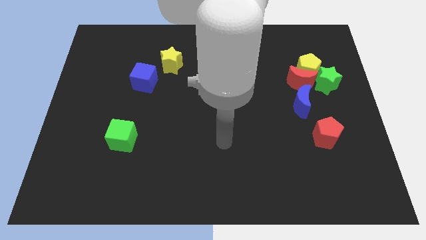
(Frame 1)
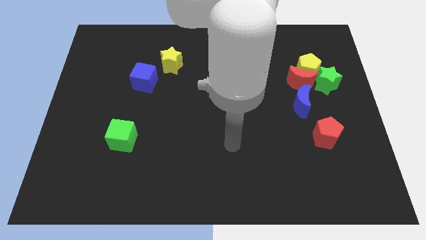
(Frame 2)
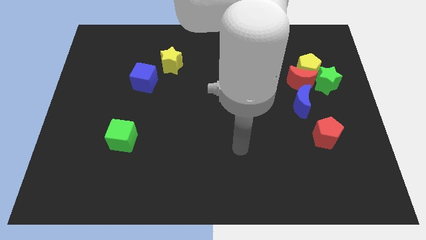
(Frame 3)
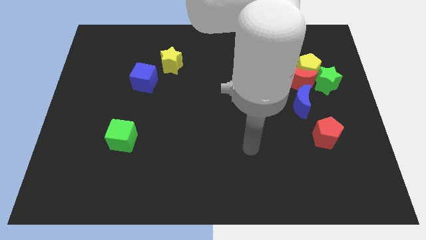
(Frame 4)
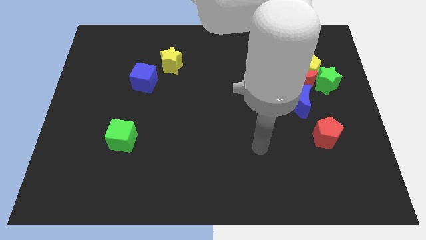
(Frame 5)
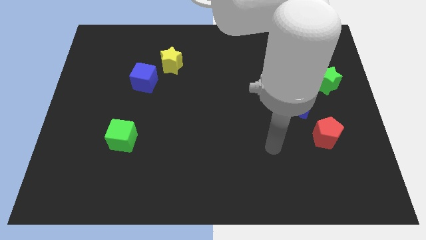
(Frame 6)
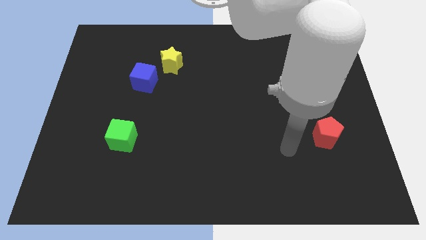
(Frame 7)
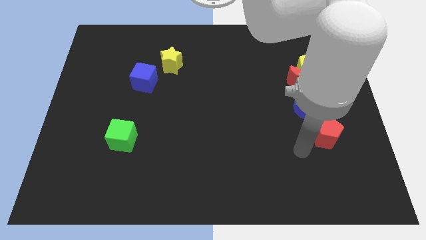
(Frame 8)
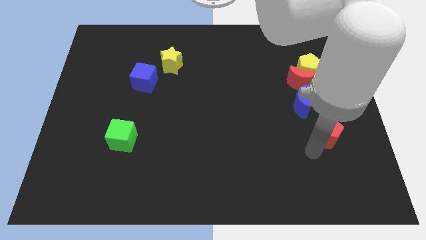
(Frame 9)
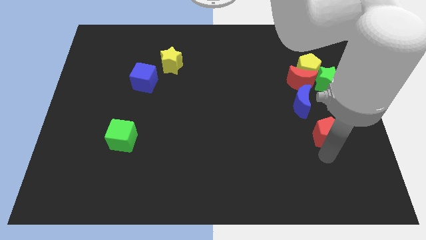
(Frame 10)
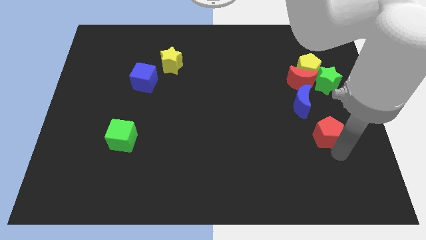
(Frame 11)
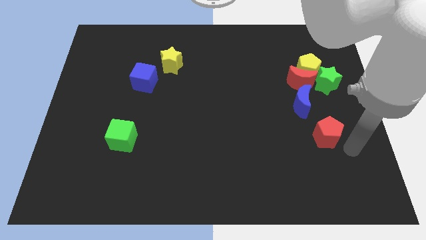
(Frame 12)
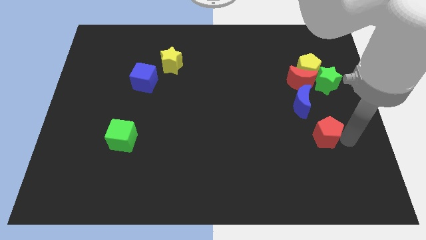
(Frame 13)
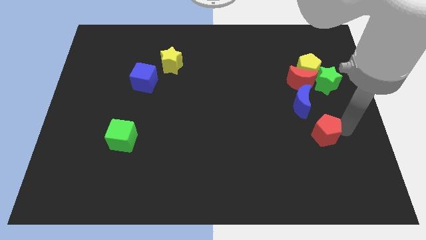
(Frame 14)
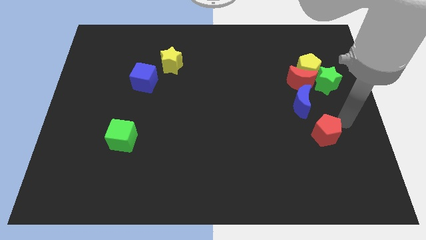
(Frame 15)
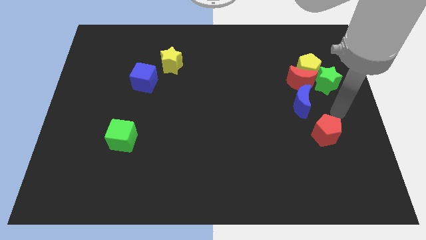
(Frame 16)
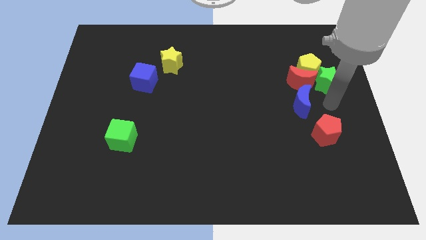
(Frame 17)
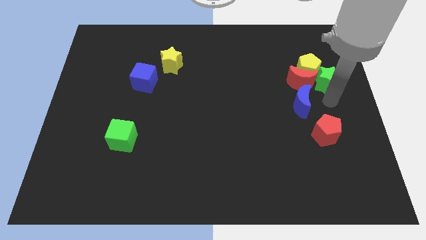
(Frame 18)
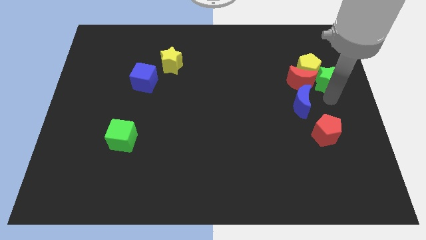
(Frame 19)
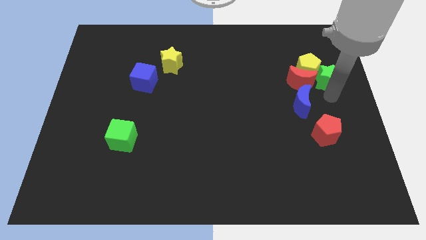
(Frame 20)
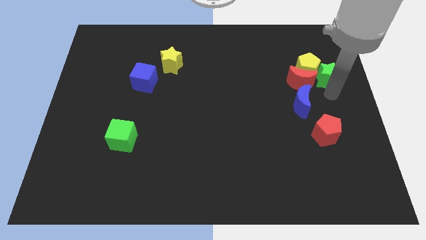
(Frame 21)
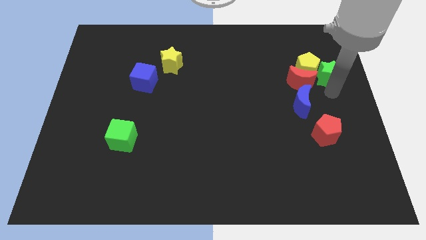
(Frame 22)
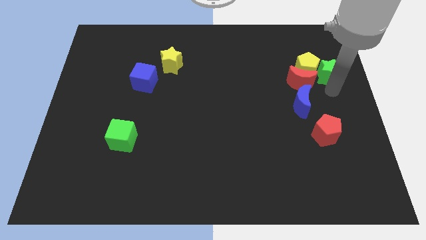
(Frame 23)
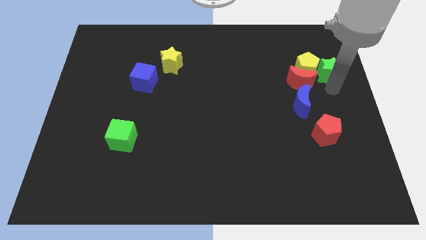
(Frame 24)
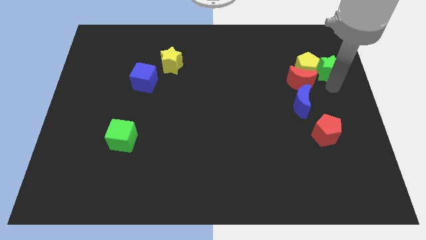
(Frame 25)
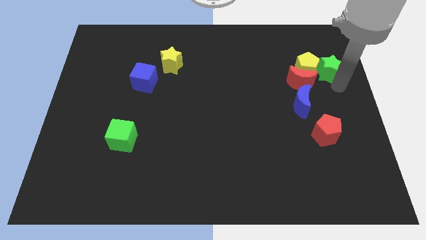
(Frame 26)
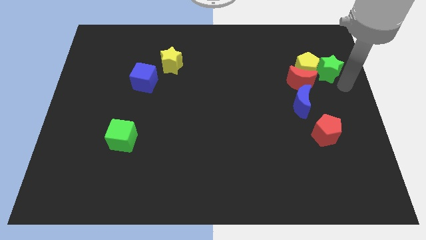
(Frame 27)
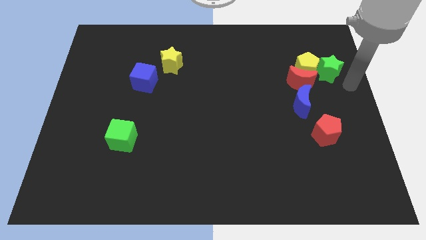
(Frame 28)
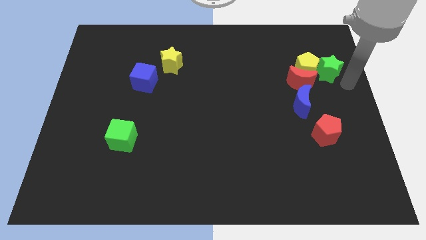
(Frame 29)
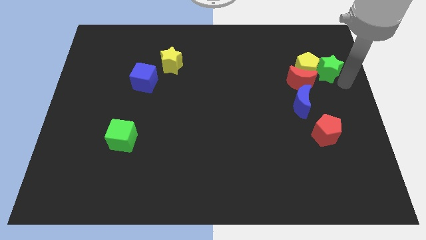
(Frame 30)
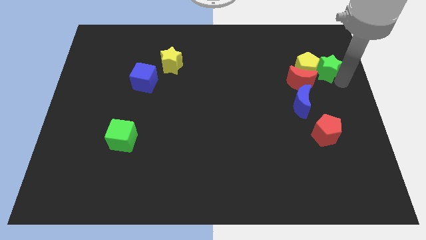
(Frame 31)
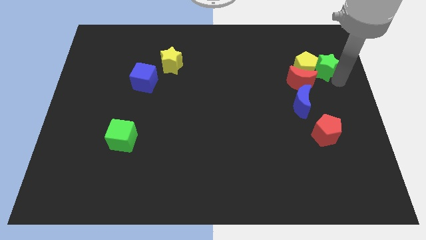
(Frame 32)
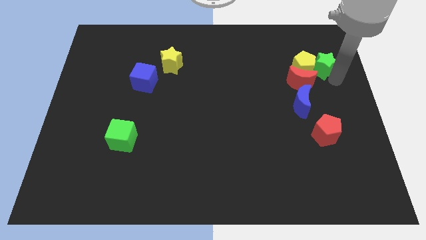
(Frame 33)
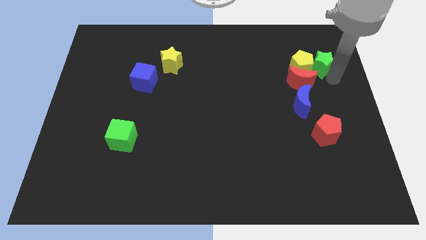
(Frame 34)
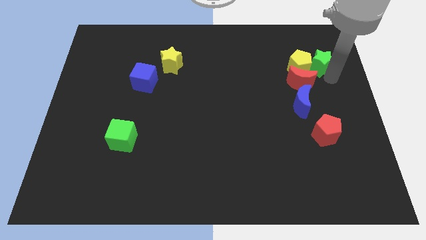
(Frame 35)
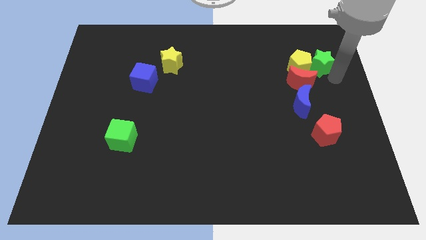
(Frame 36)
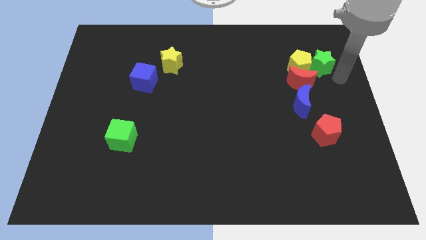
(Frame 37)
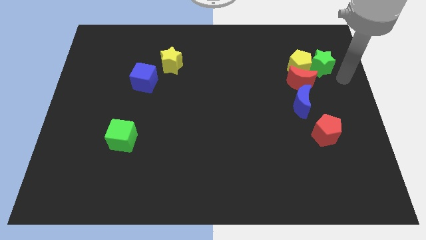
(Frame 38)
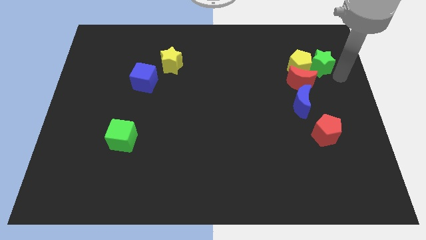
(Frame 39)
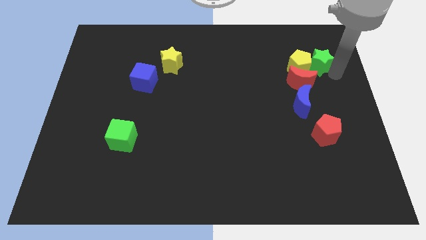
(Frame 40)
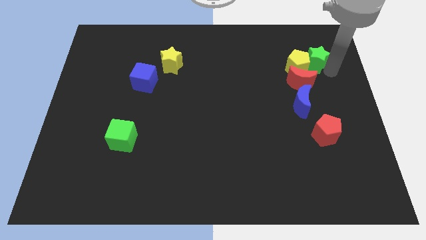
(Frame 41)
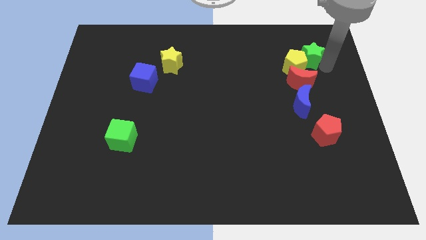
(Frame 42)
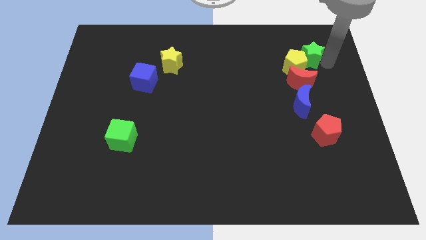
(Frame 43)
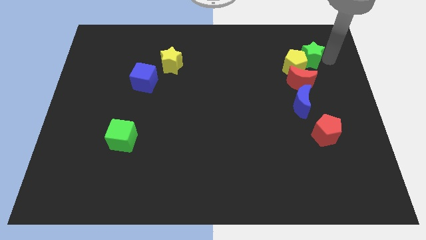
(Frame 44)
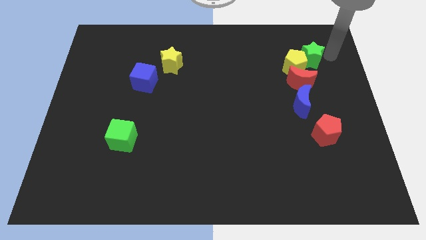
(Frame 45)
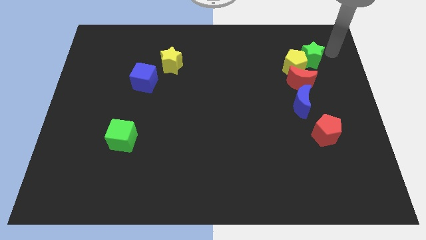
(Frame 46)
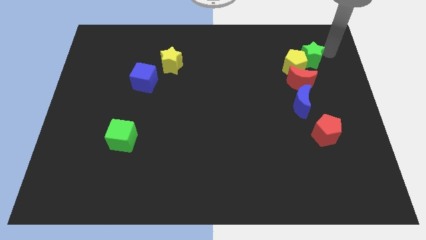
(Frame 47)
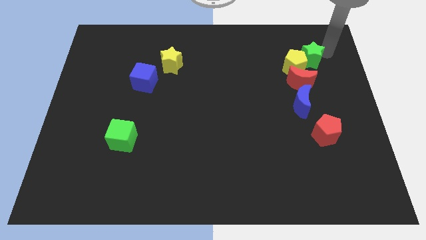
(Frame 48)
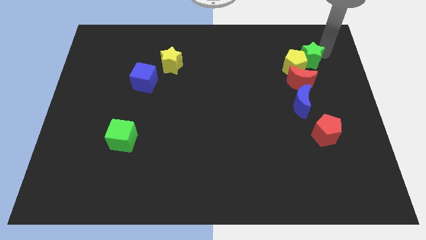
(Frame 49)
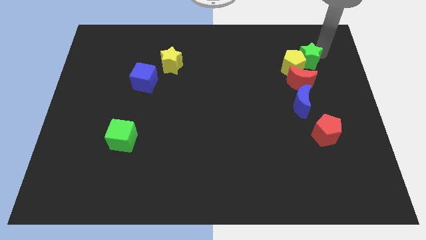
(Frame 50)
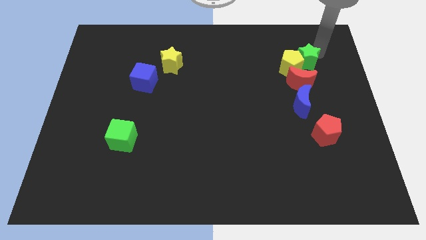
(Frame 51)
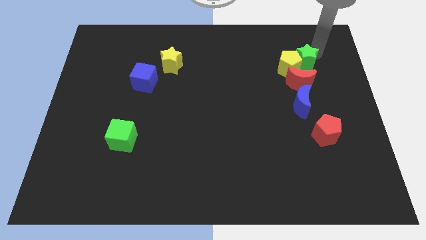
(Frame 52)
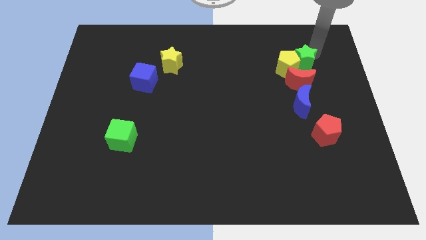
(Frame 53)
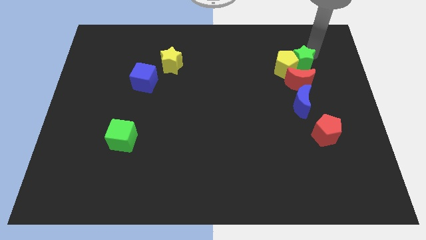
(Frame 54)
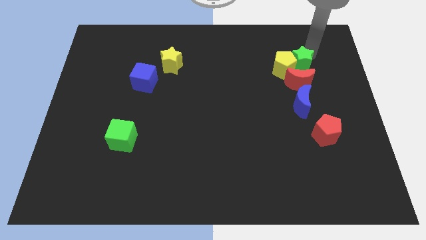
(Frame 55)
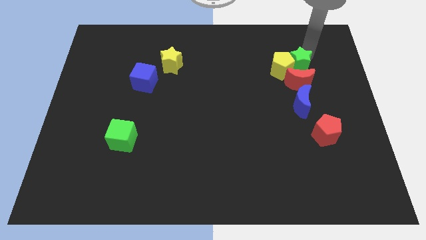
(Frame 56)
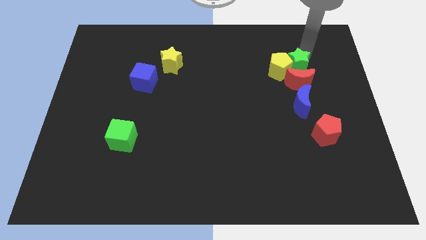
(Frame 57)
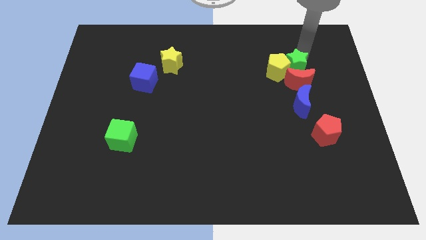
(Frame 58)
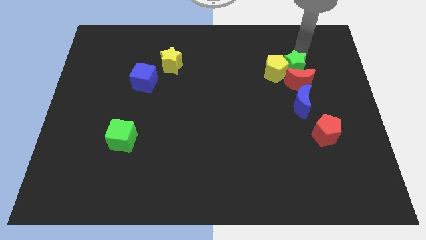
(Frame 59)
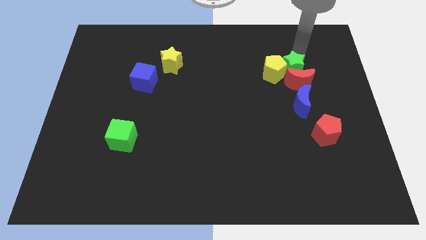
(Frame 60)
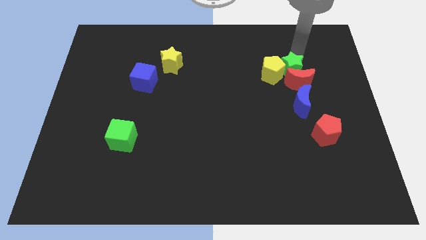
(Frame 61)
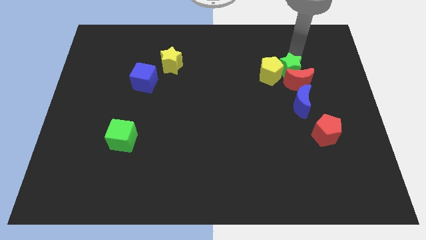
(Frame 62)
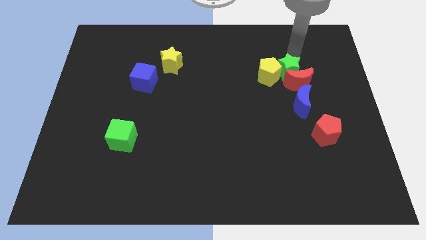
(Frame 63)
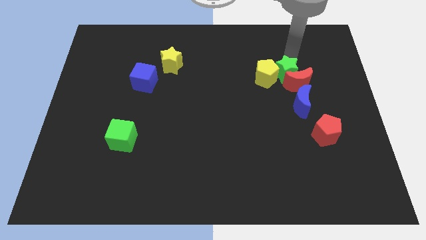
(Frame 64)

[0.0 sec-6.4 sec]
push the green star left of the red moon
